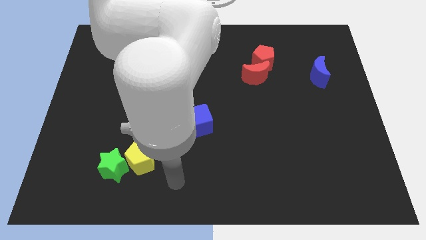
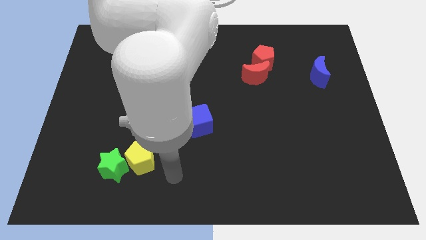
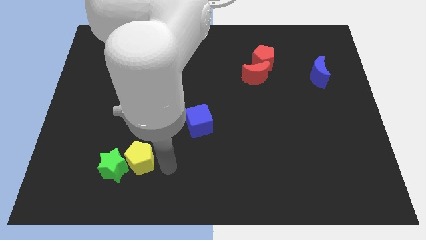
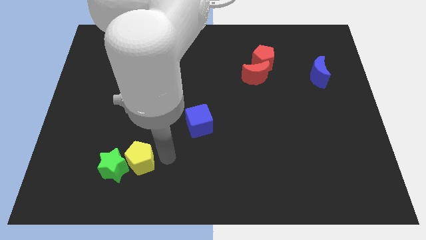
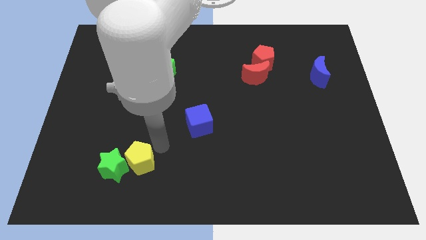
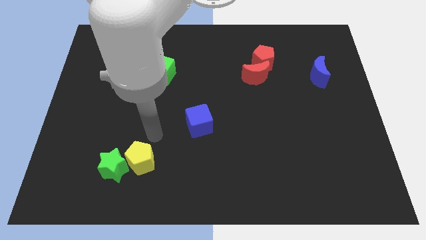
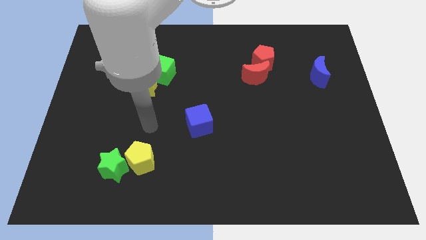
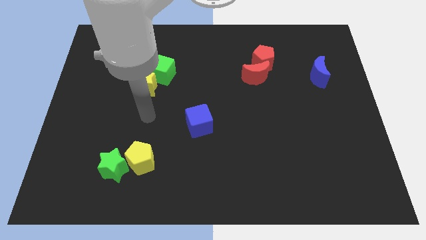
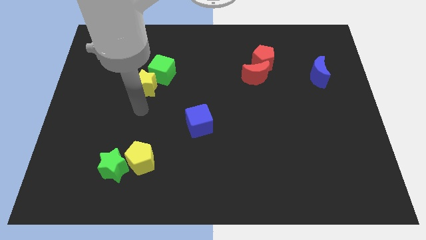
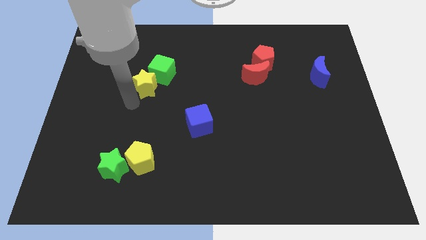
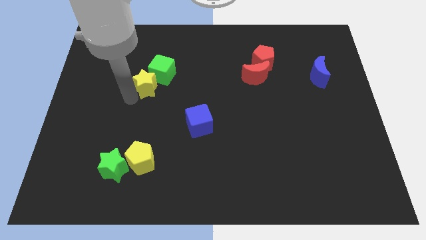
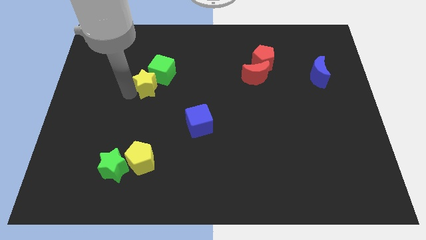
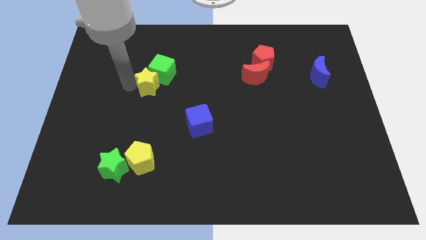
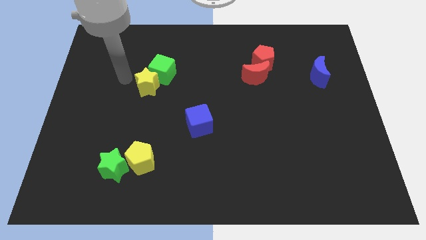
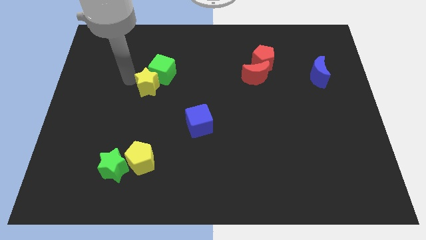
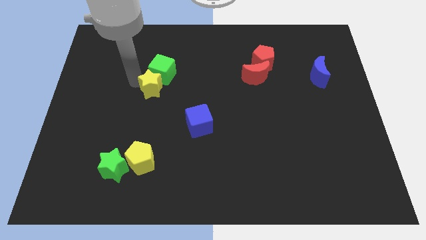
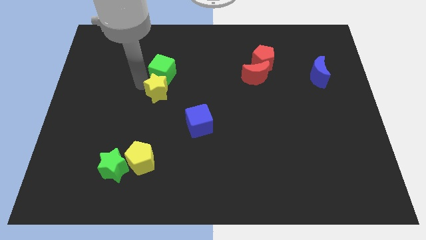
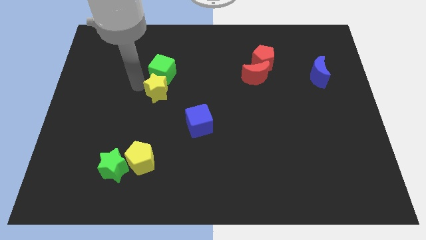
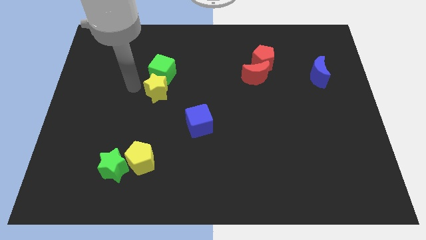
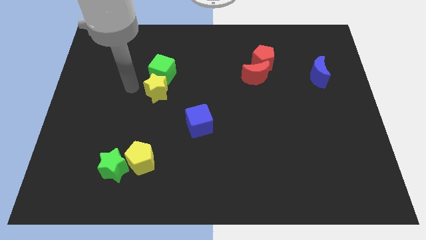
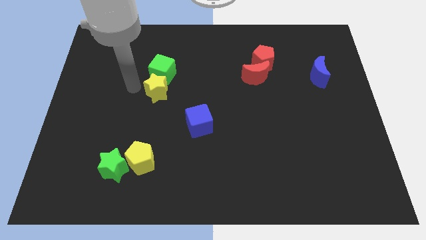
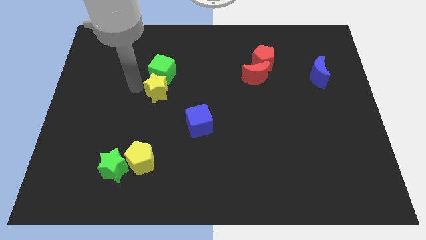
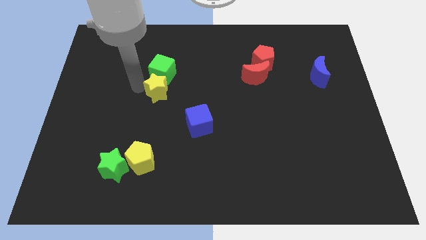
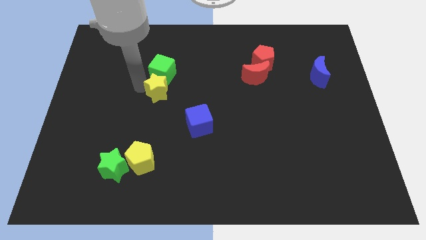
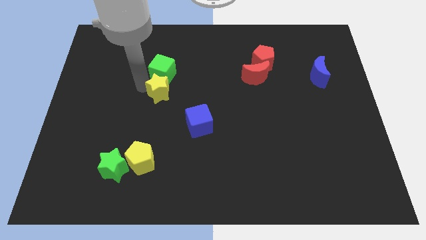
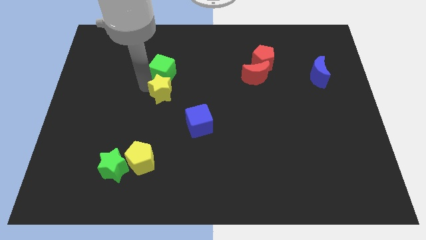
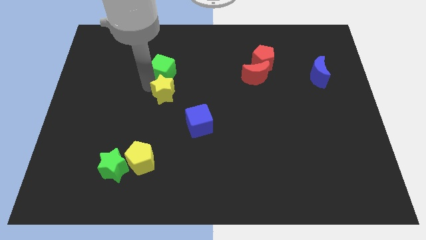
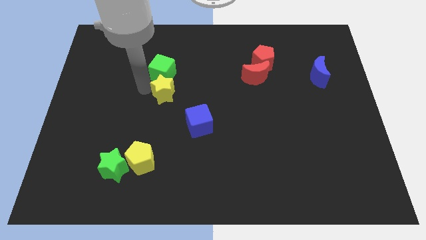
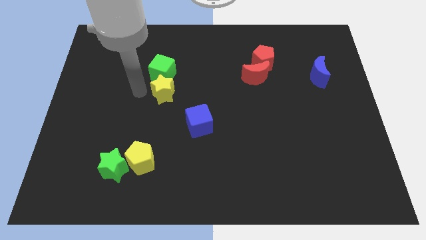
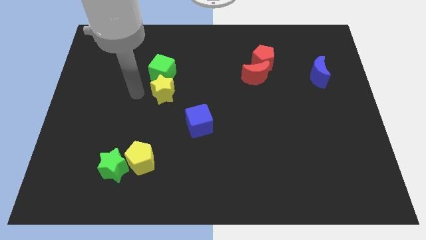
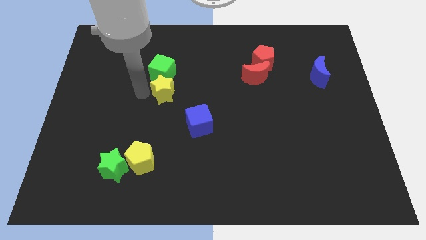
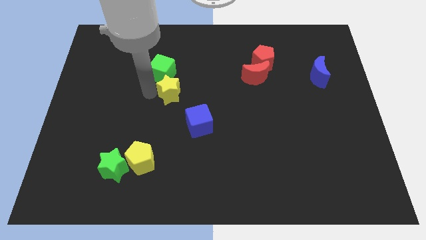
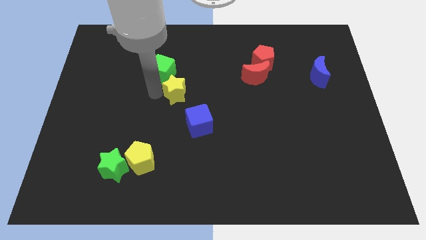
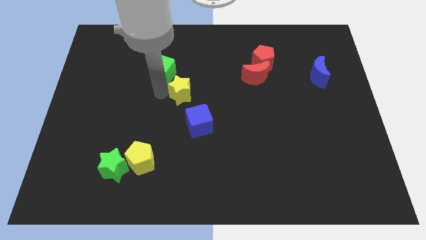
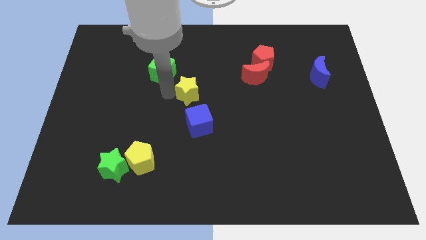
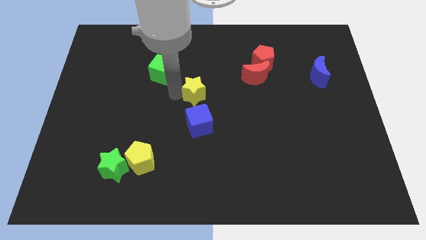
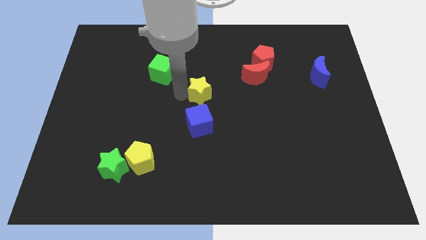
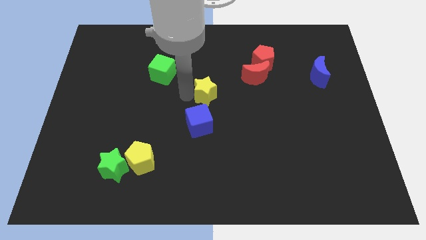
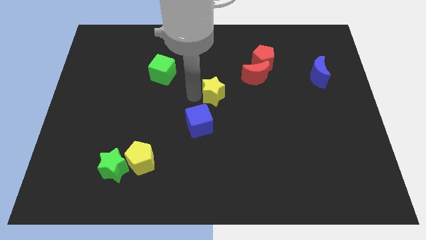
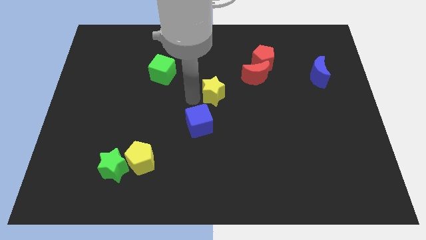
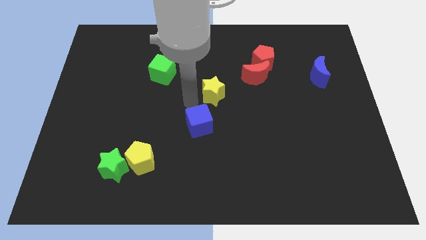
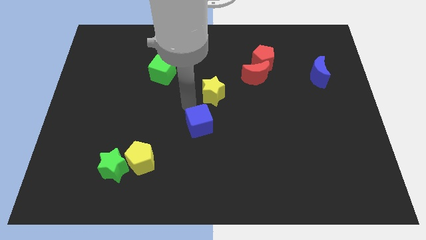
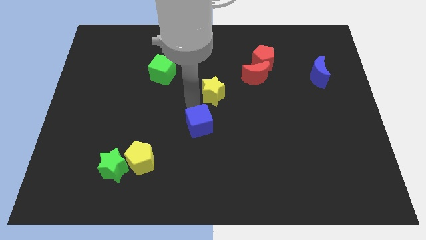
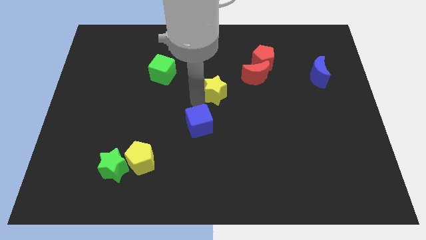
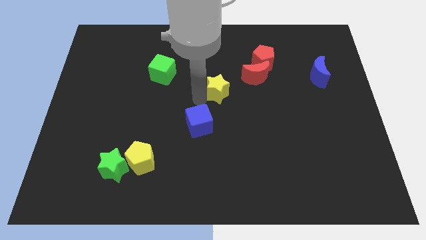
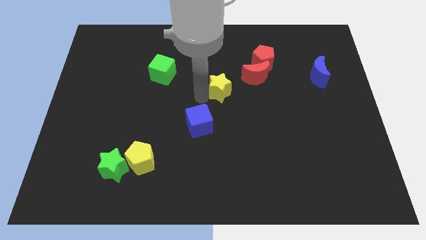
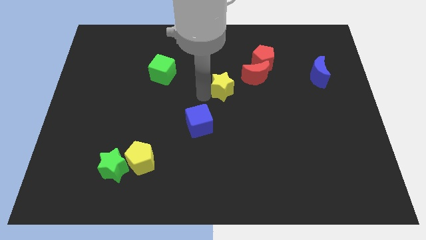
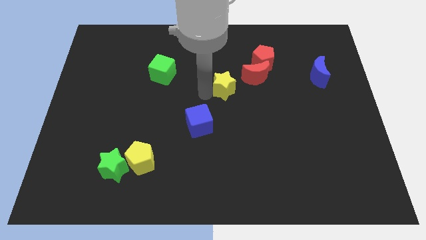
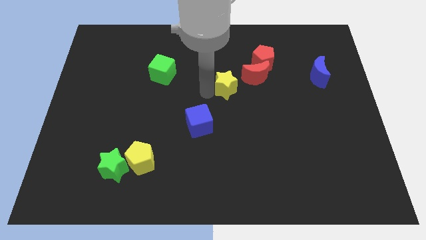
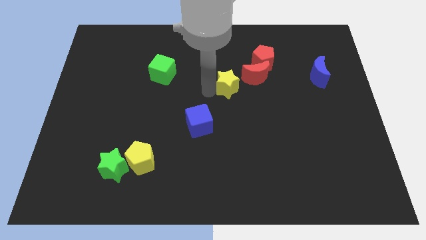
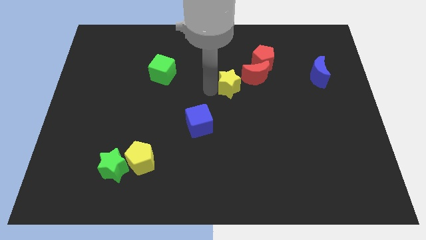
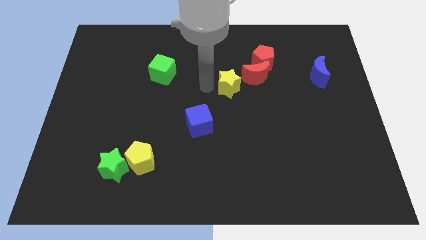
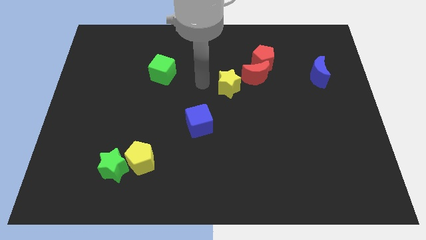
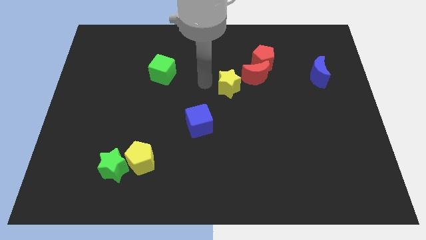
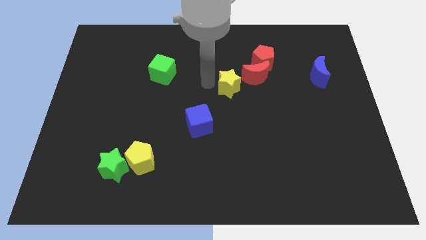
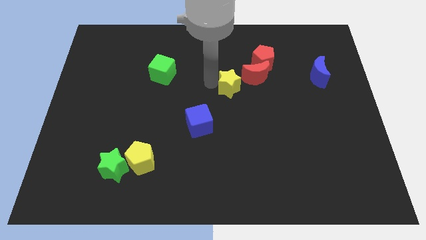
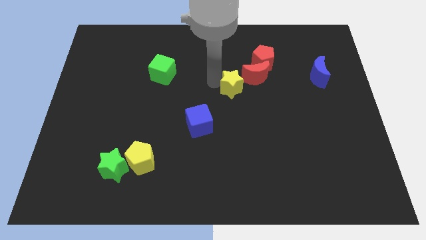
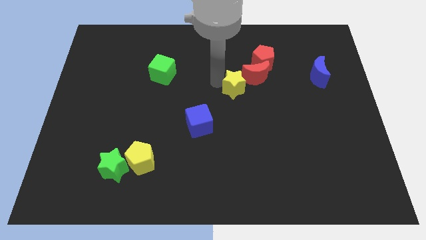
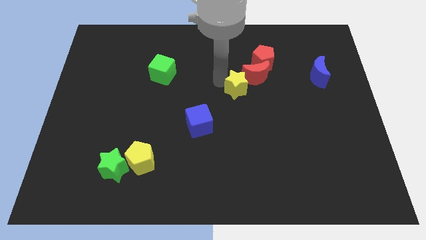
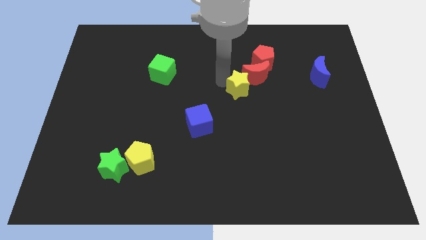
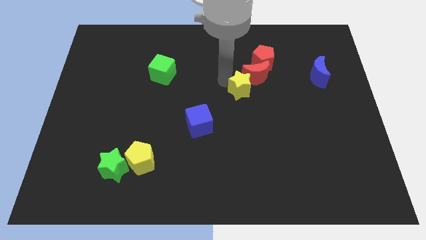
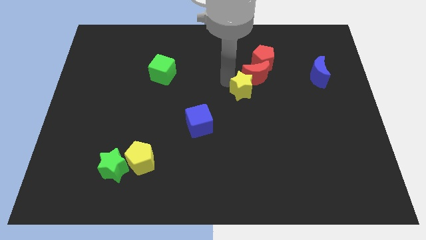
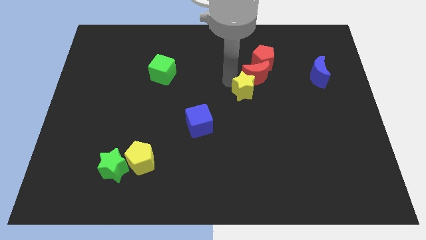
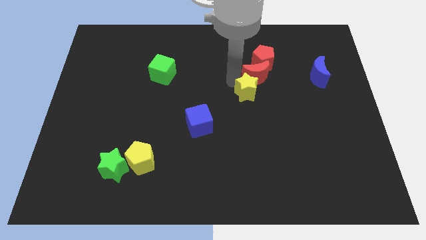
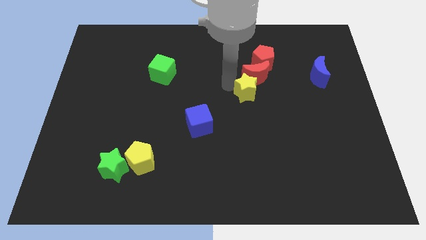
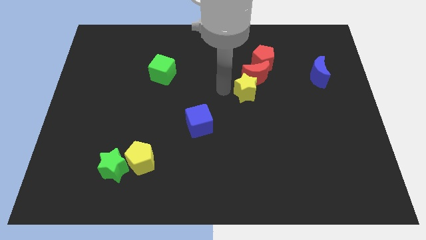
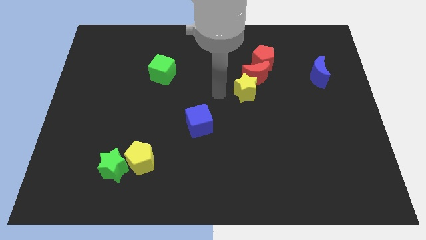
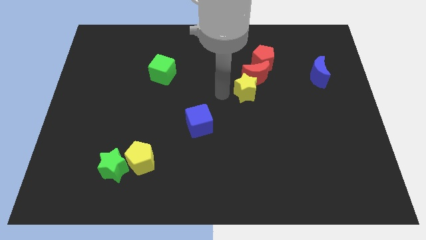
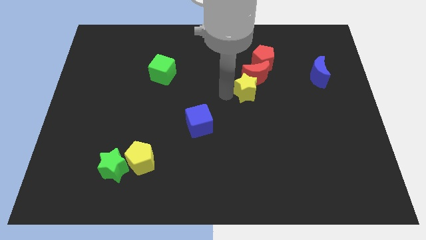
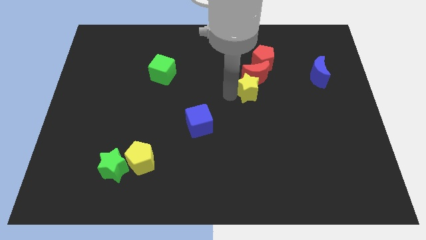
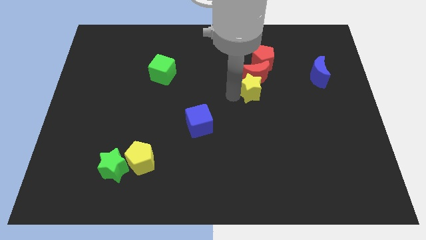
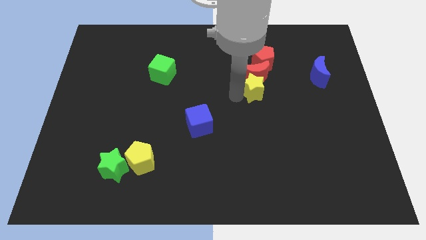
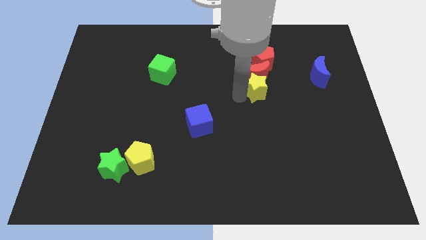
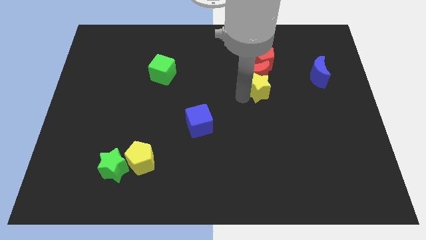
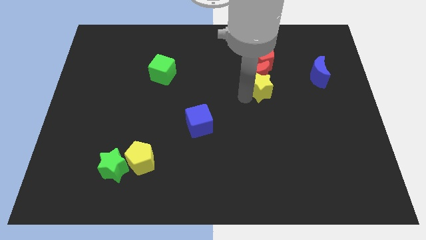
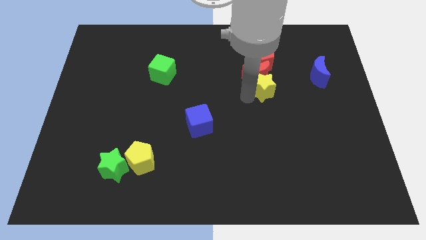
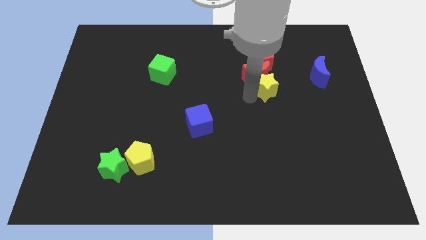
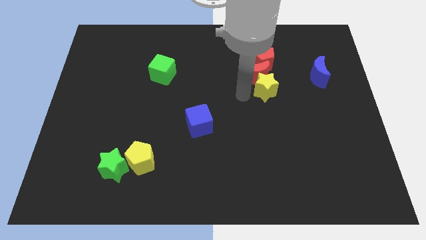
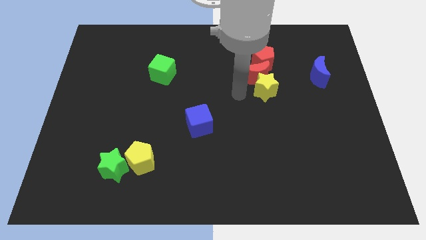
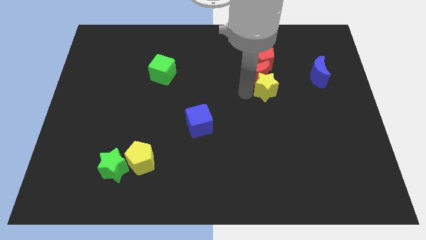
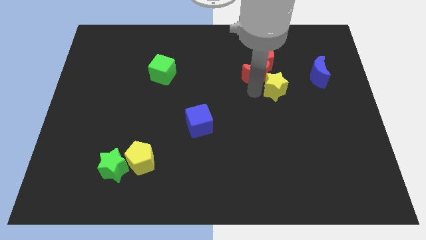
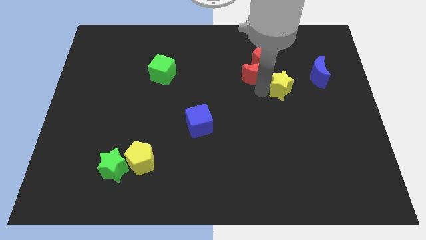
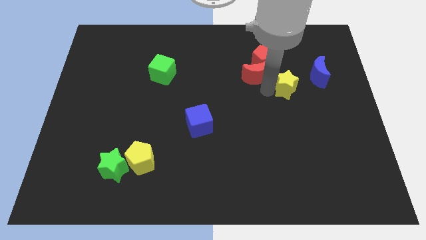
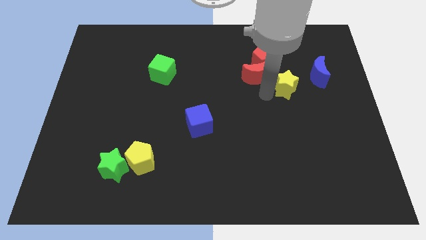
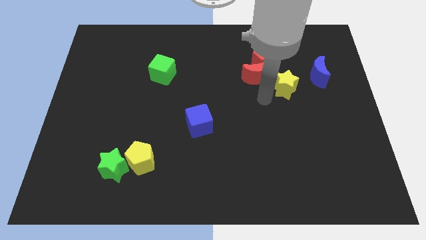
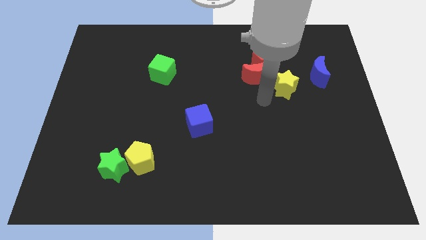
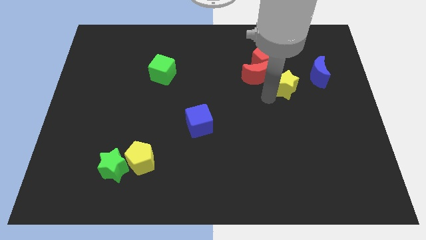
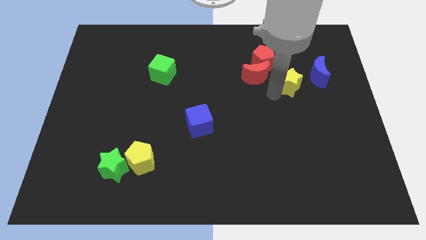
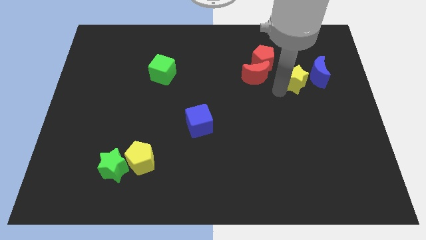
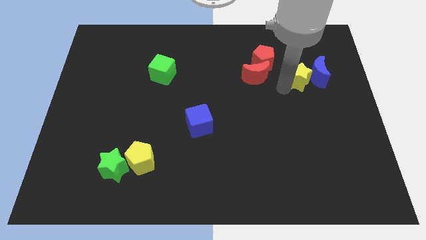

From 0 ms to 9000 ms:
move the yellow star close to the blue moon
